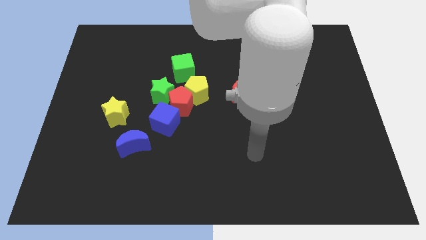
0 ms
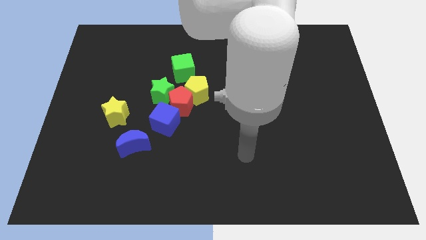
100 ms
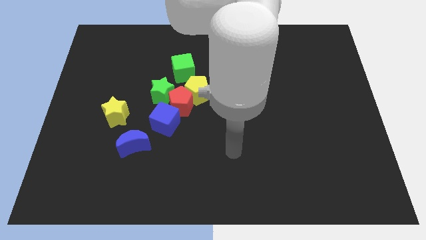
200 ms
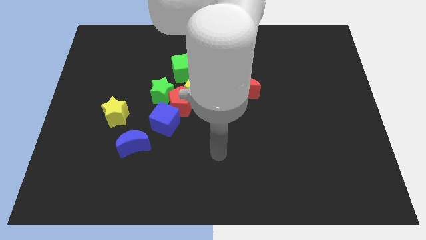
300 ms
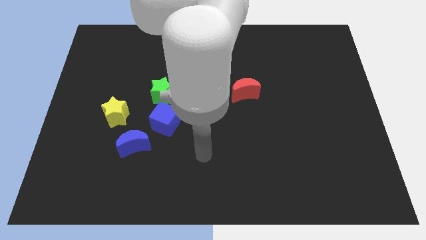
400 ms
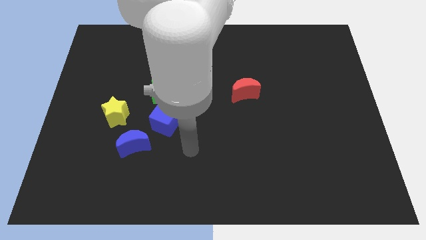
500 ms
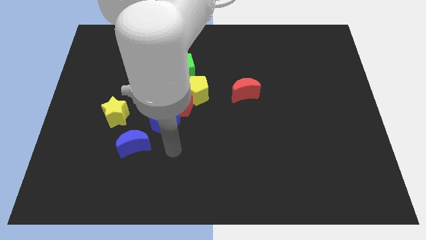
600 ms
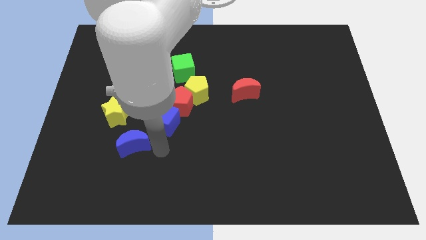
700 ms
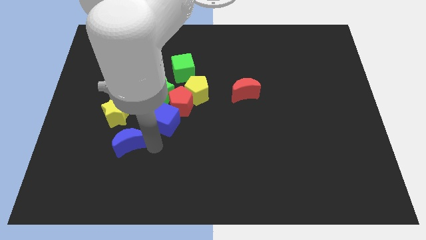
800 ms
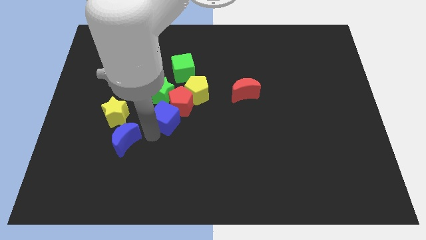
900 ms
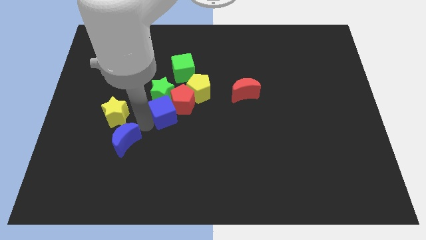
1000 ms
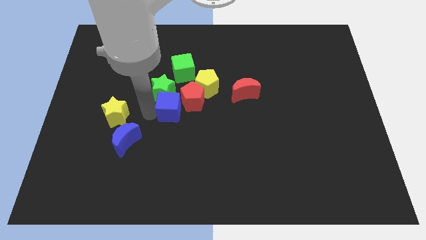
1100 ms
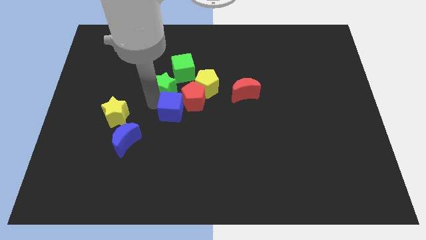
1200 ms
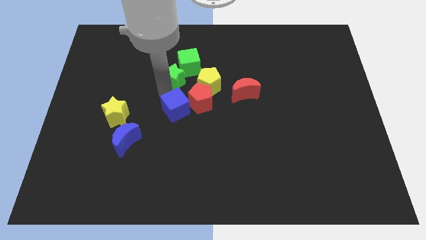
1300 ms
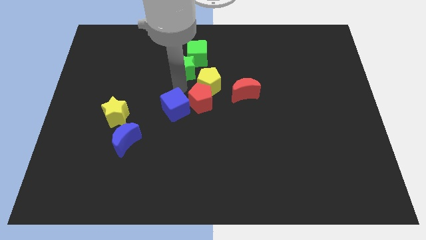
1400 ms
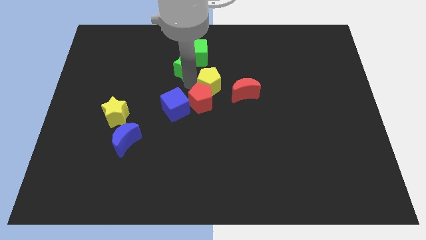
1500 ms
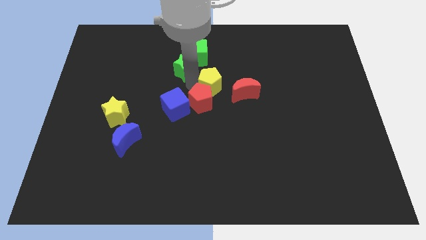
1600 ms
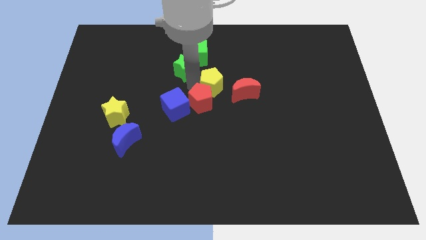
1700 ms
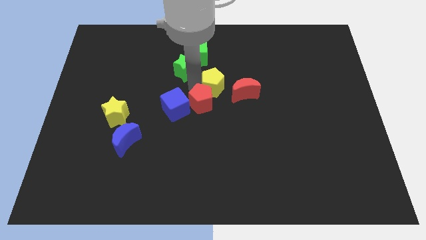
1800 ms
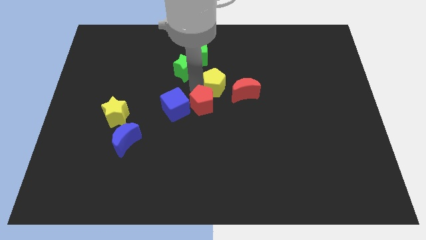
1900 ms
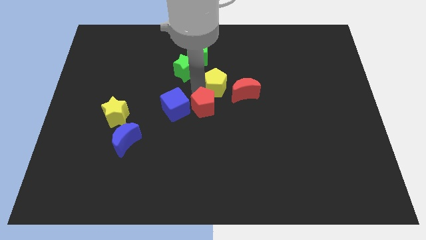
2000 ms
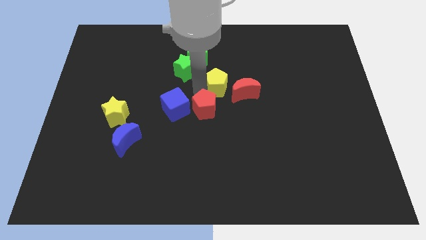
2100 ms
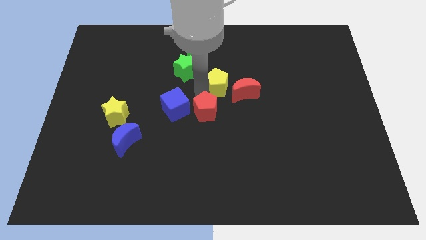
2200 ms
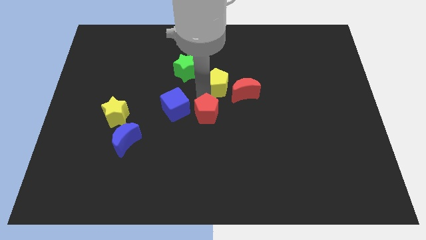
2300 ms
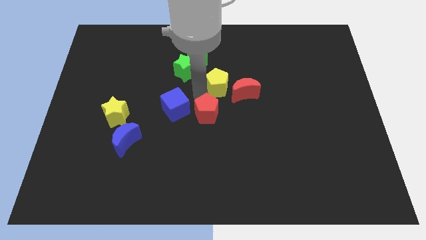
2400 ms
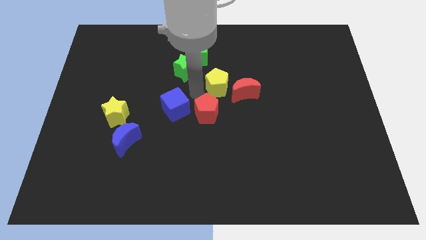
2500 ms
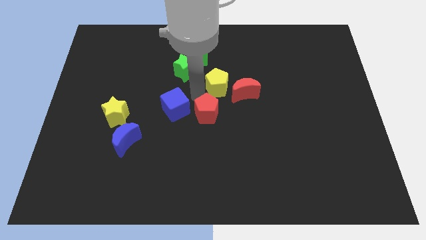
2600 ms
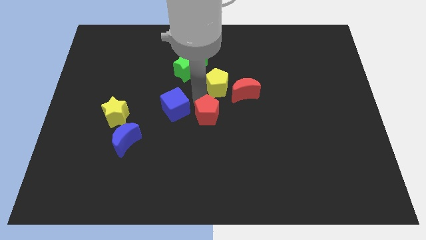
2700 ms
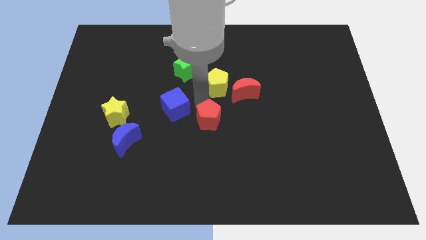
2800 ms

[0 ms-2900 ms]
separate the red pentagon from the group

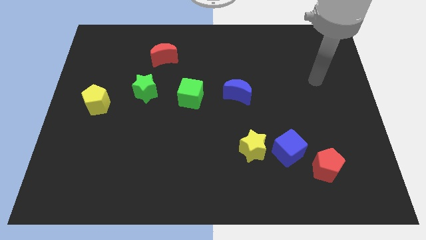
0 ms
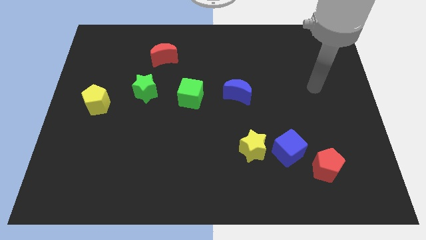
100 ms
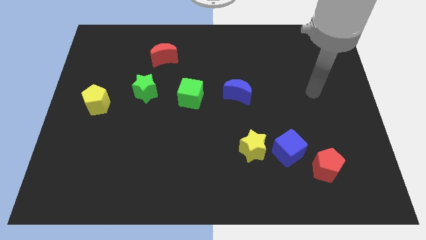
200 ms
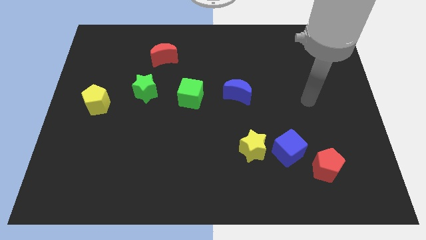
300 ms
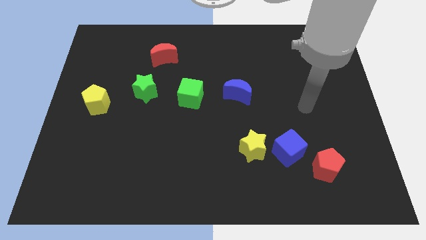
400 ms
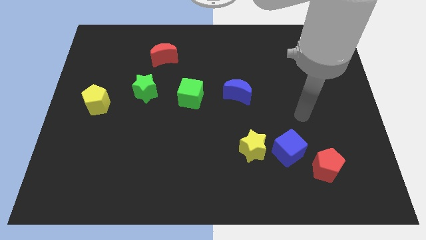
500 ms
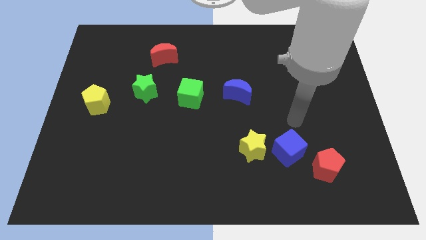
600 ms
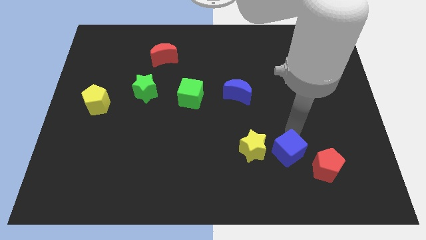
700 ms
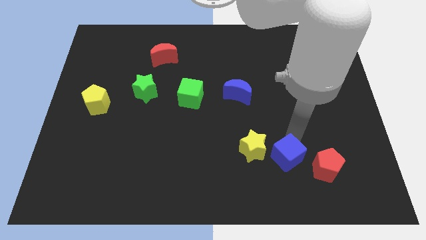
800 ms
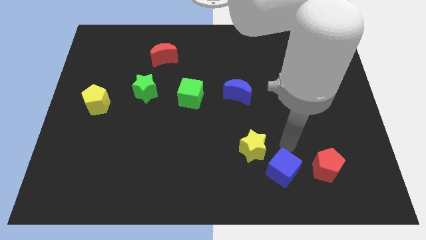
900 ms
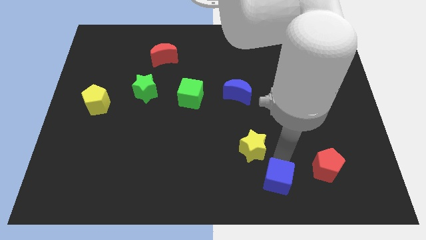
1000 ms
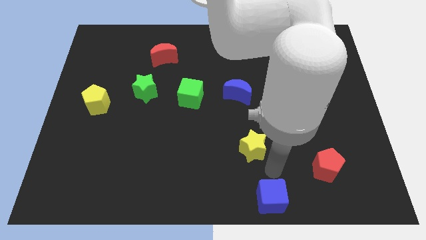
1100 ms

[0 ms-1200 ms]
pull the yellow star apart from the blue cube

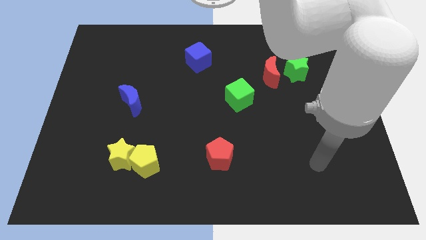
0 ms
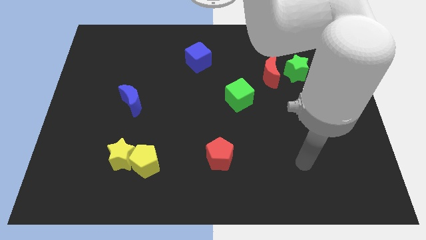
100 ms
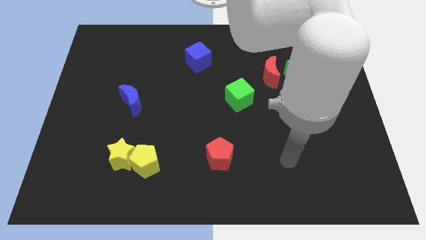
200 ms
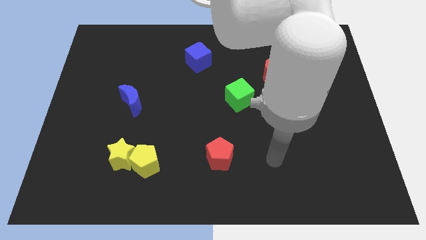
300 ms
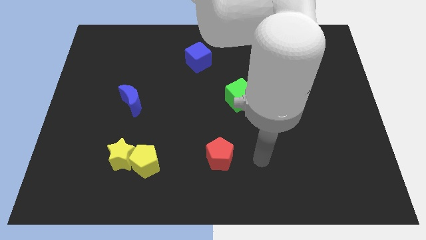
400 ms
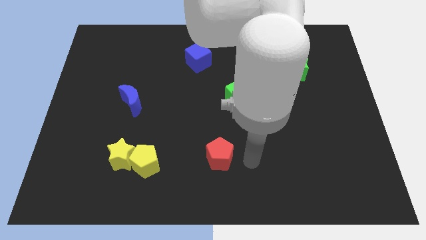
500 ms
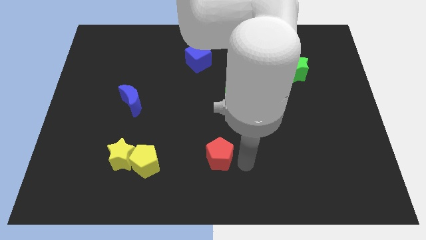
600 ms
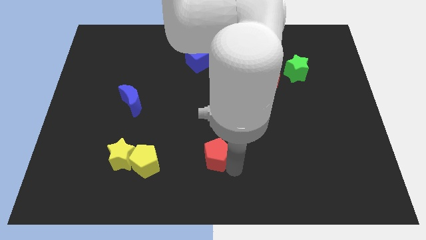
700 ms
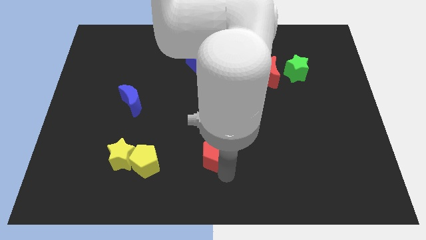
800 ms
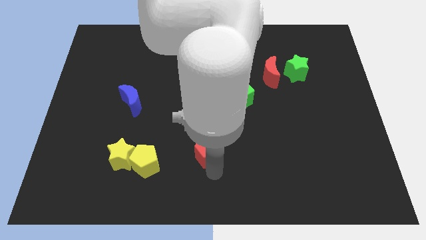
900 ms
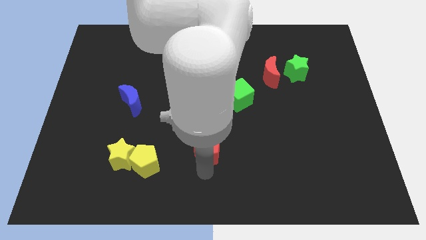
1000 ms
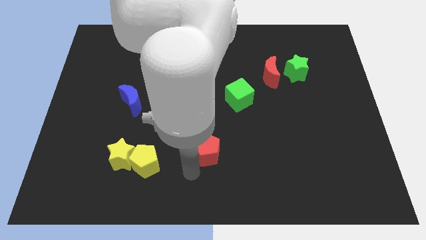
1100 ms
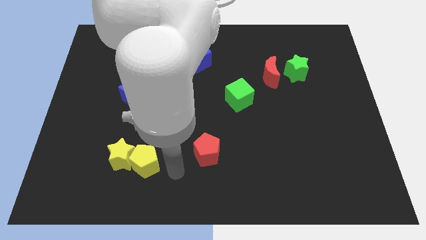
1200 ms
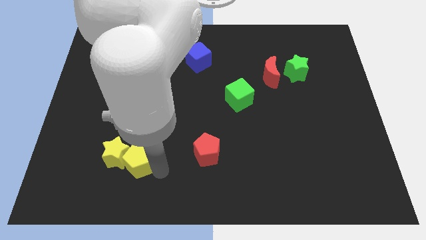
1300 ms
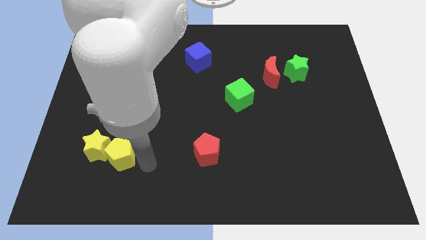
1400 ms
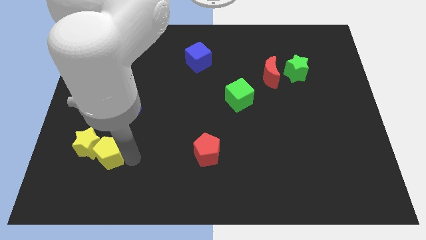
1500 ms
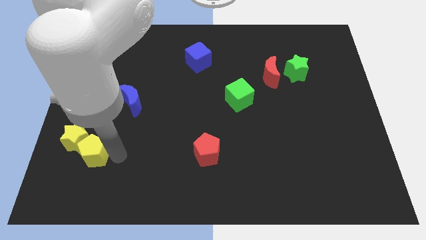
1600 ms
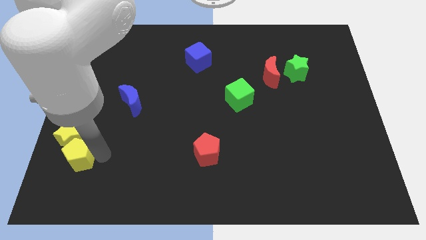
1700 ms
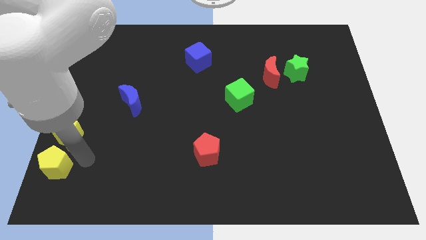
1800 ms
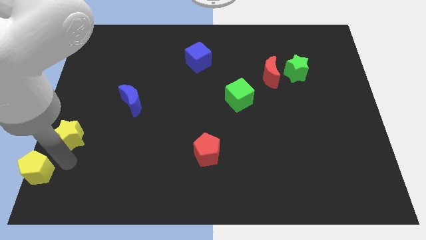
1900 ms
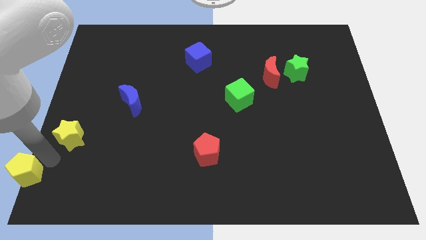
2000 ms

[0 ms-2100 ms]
pull the yellow star apart from the yellow pentagon

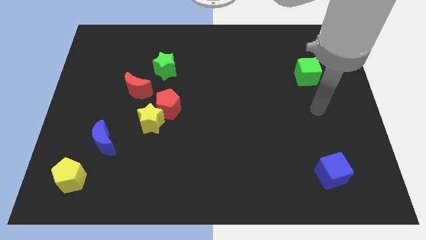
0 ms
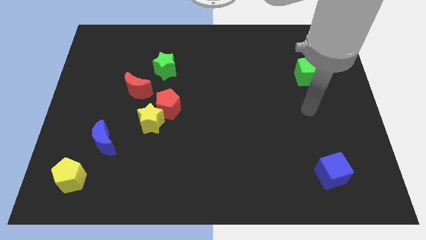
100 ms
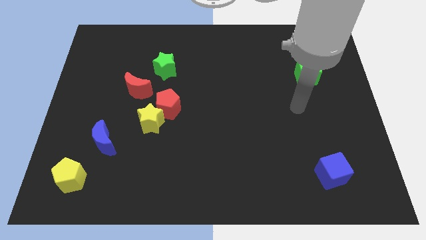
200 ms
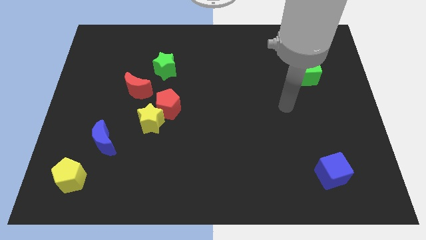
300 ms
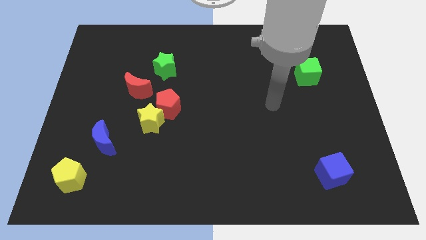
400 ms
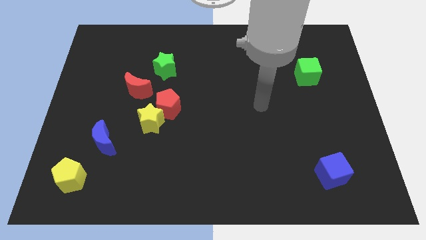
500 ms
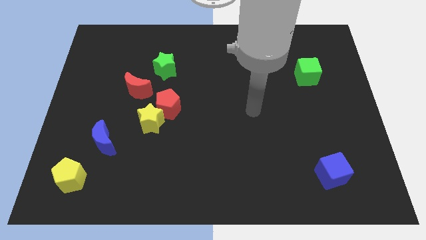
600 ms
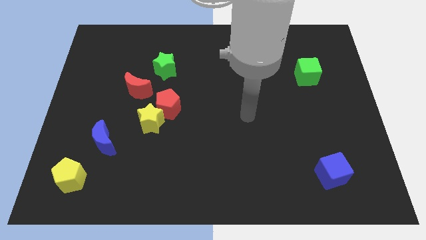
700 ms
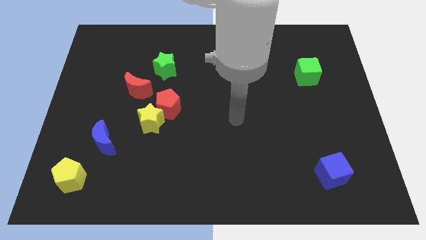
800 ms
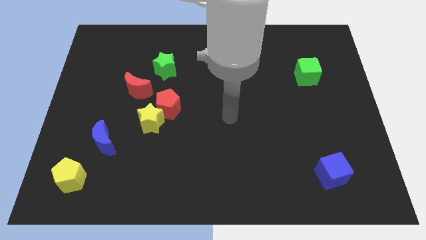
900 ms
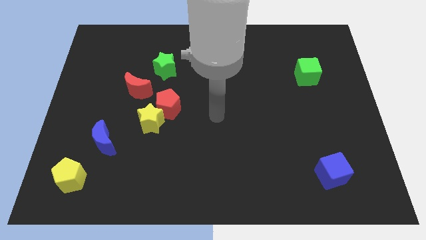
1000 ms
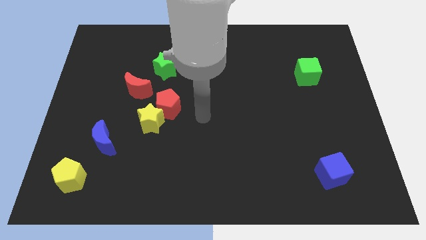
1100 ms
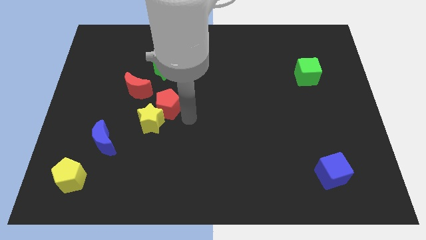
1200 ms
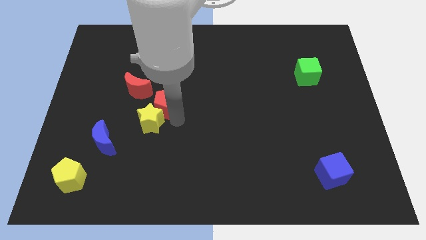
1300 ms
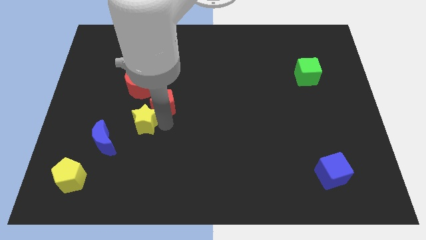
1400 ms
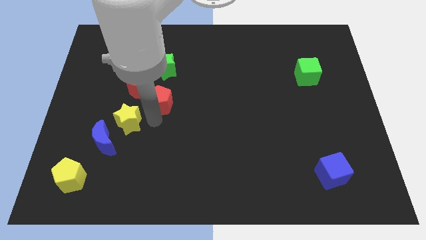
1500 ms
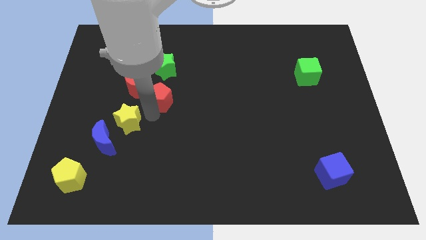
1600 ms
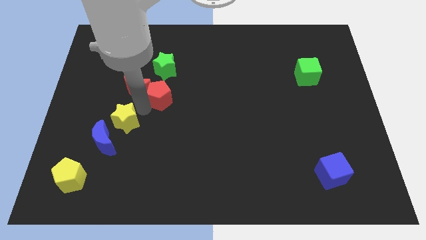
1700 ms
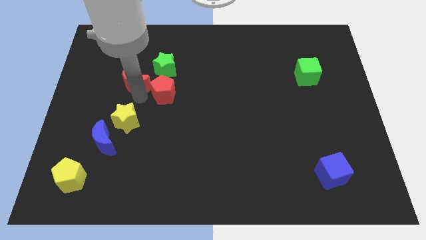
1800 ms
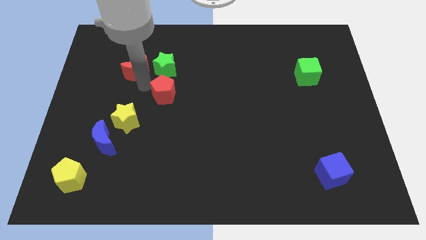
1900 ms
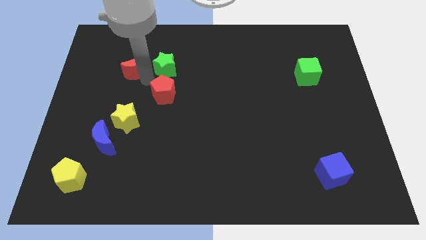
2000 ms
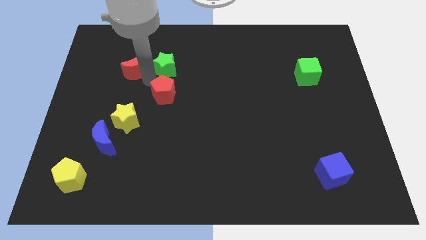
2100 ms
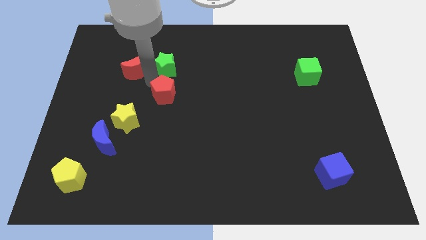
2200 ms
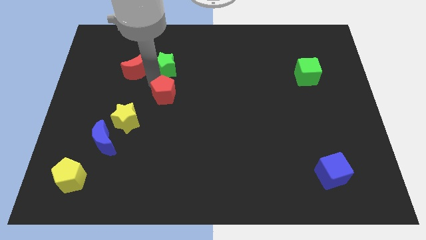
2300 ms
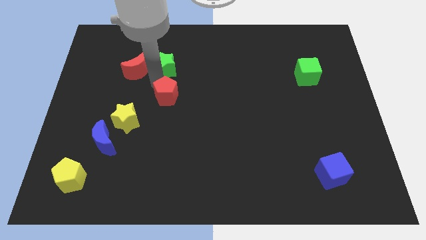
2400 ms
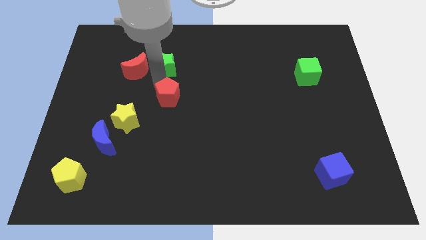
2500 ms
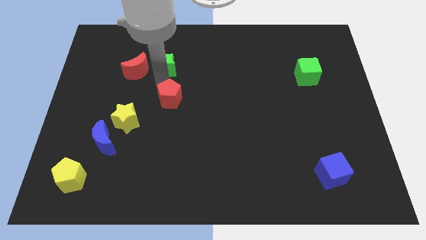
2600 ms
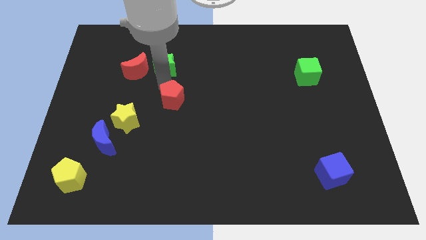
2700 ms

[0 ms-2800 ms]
move the red pentagon away from the yellow star and red moon

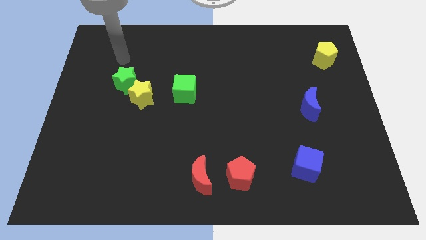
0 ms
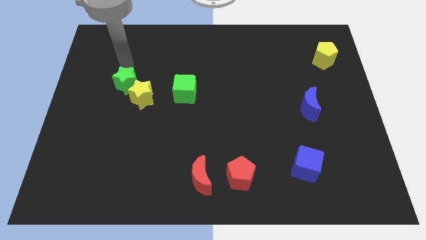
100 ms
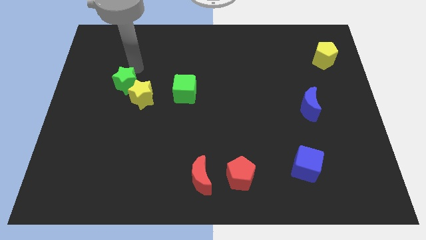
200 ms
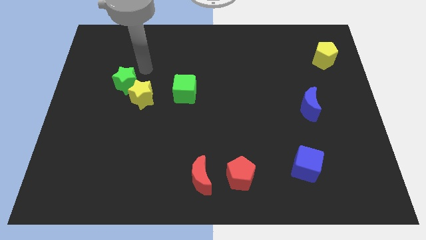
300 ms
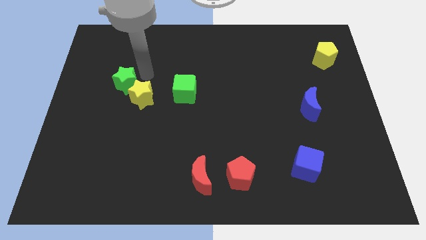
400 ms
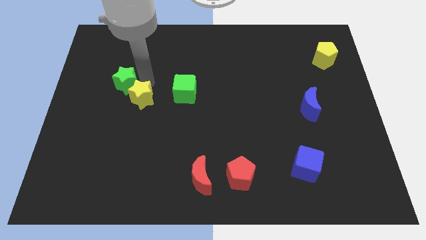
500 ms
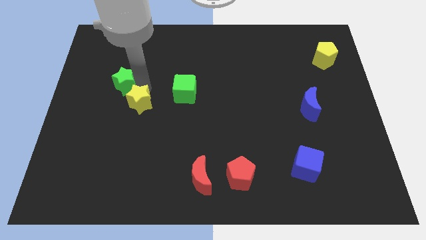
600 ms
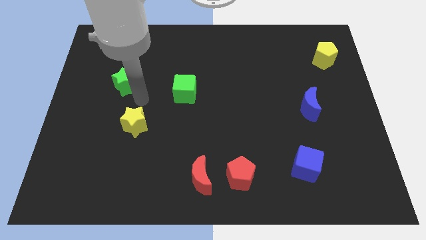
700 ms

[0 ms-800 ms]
move the green star away from the yellow star
